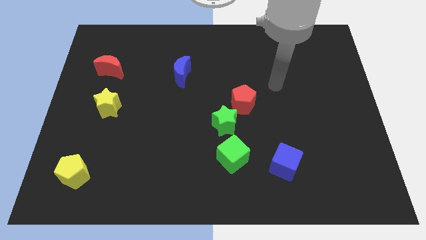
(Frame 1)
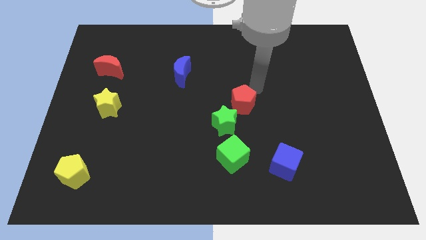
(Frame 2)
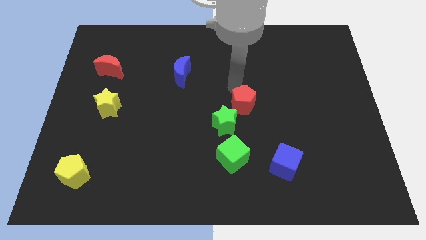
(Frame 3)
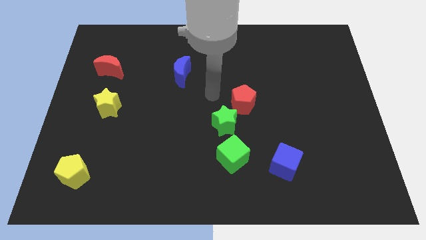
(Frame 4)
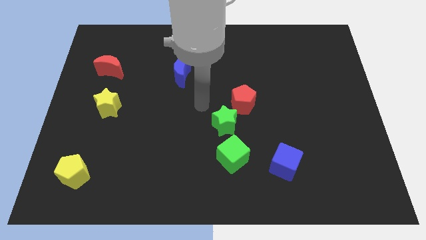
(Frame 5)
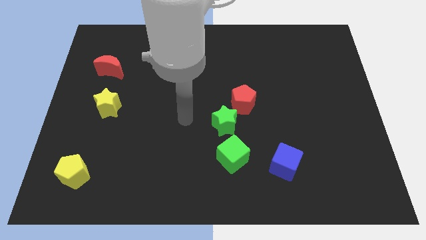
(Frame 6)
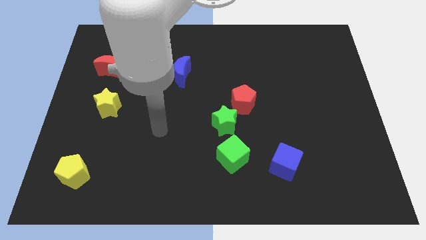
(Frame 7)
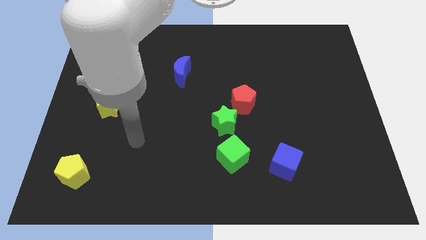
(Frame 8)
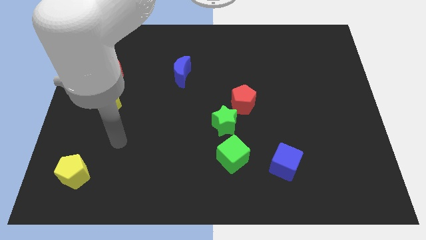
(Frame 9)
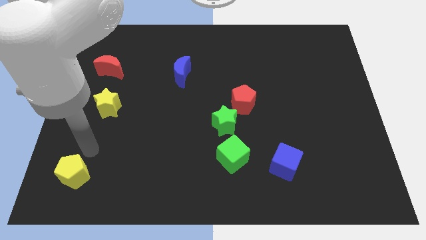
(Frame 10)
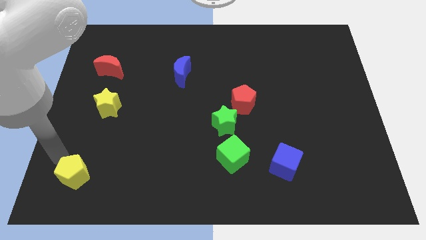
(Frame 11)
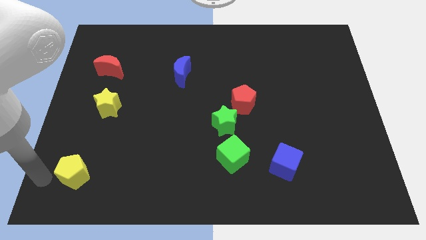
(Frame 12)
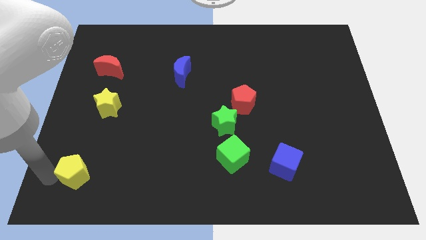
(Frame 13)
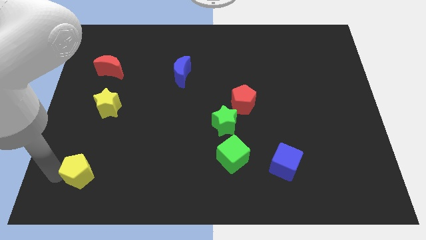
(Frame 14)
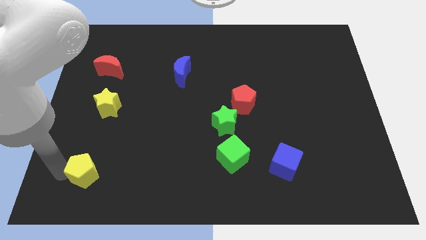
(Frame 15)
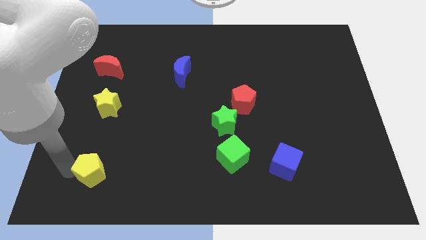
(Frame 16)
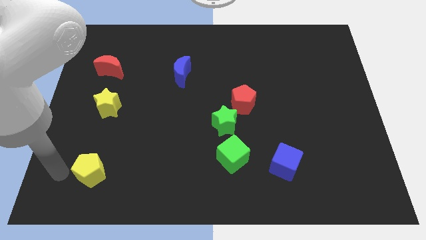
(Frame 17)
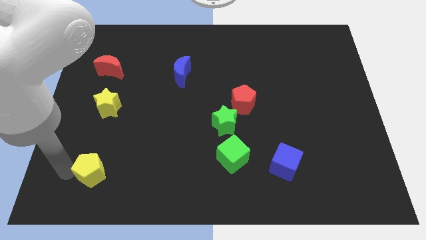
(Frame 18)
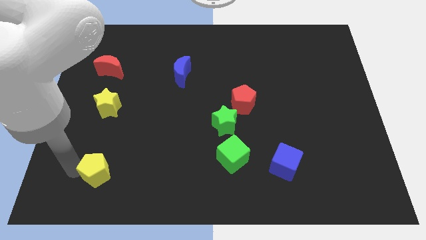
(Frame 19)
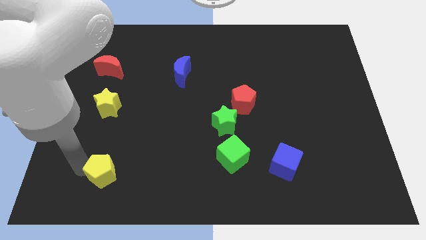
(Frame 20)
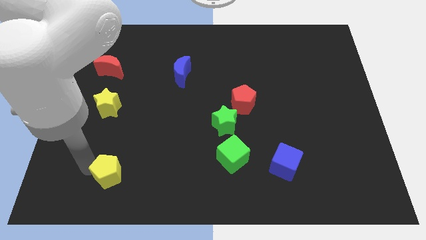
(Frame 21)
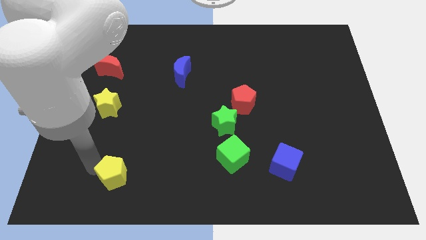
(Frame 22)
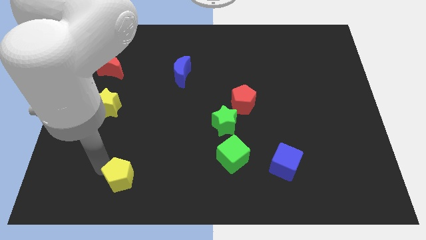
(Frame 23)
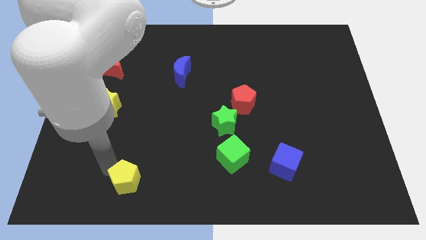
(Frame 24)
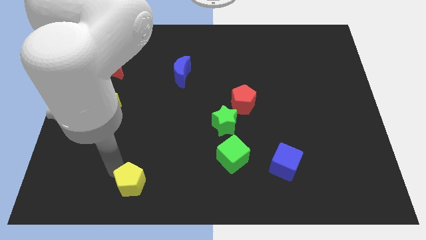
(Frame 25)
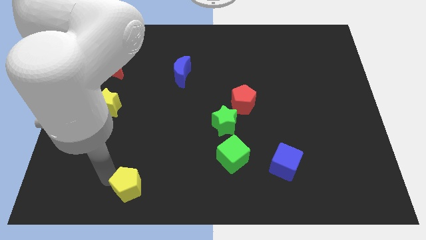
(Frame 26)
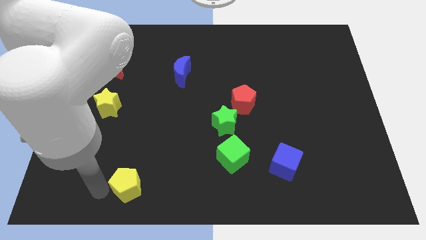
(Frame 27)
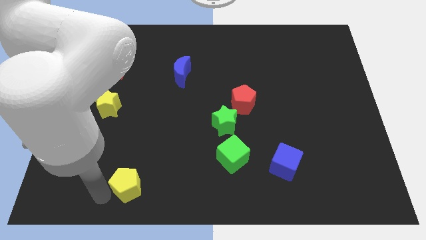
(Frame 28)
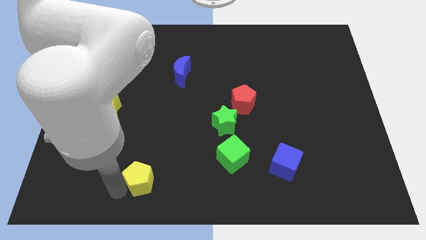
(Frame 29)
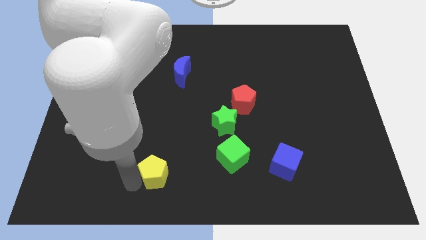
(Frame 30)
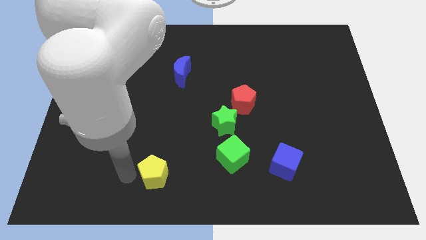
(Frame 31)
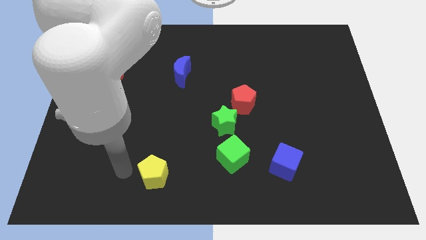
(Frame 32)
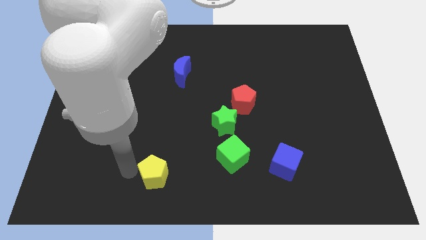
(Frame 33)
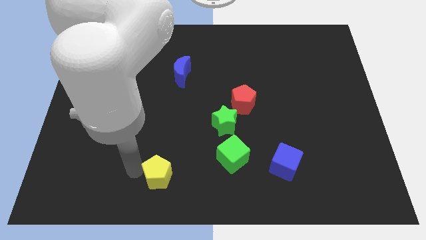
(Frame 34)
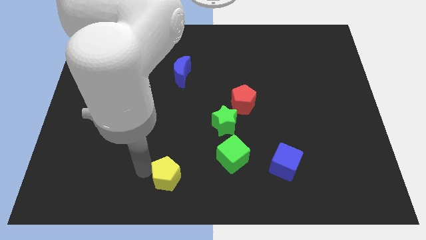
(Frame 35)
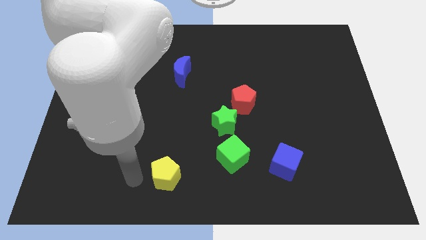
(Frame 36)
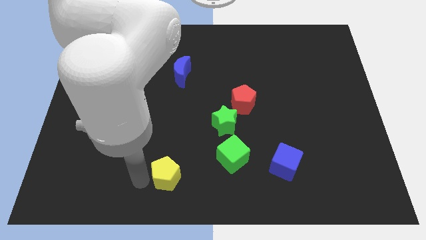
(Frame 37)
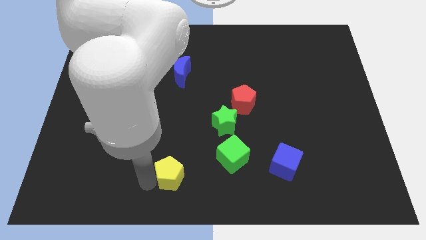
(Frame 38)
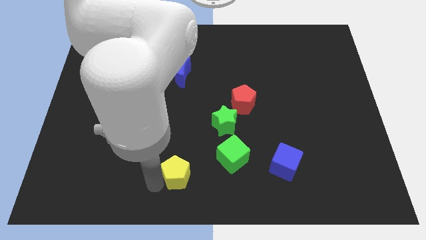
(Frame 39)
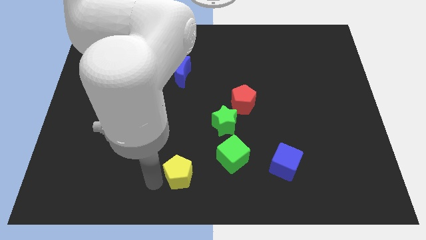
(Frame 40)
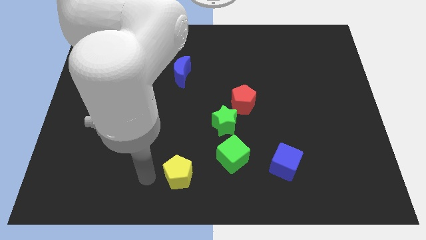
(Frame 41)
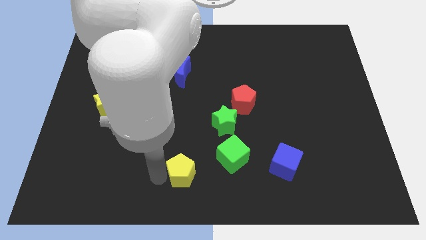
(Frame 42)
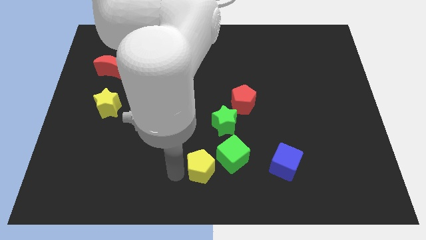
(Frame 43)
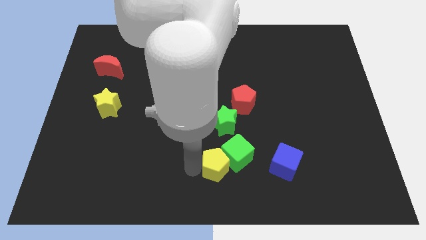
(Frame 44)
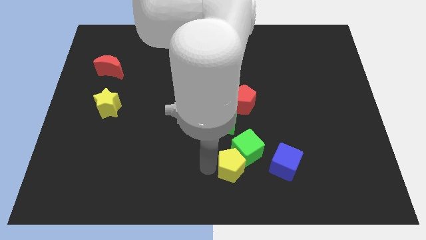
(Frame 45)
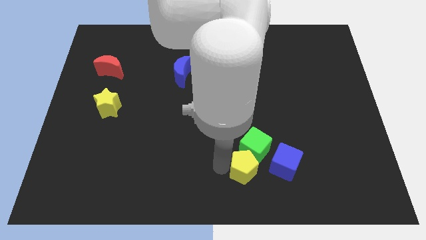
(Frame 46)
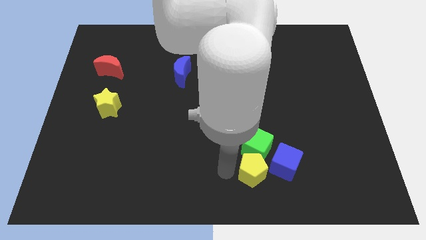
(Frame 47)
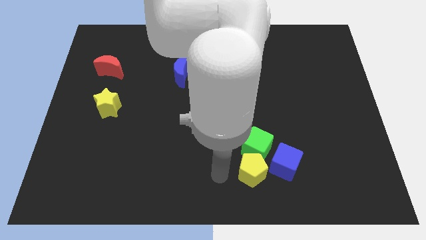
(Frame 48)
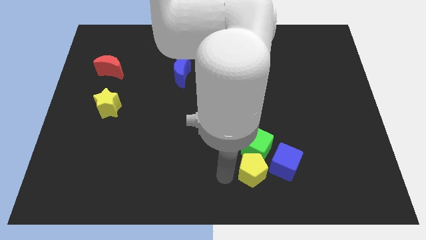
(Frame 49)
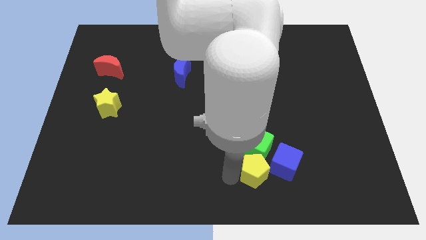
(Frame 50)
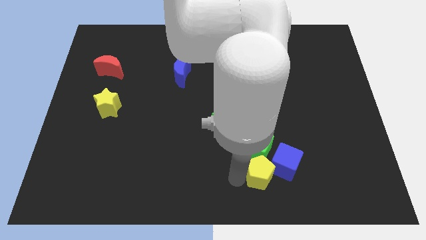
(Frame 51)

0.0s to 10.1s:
slide the yellow pentagon next to the blue cube

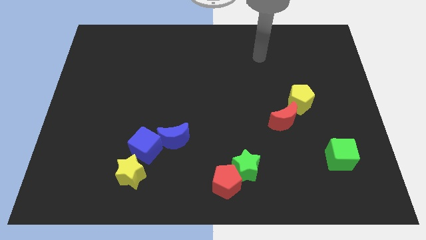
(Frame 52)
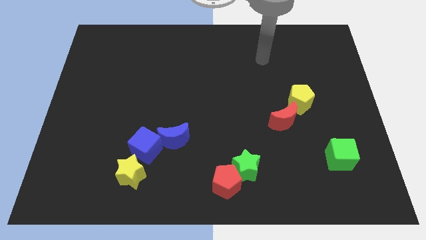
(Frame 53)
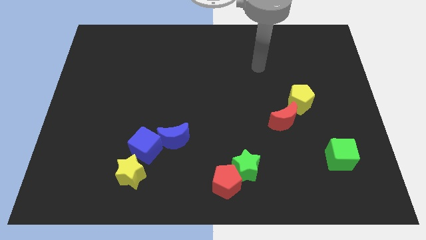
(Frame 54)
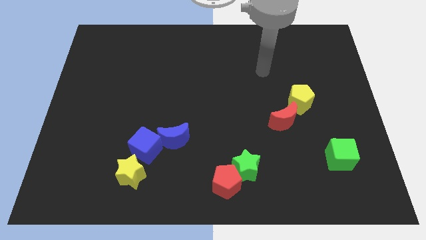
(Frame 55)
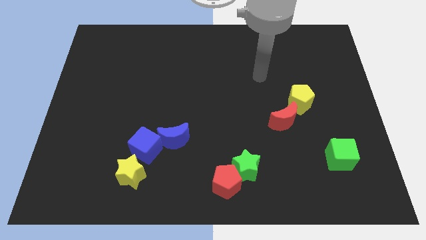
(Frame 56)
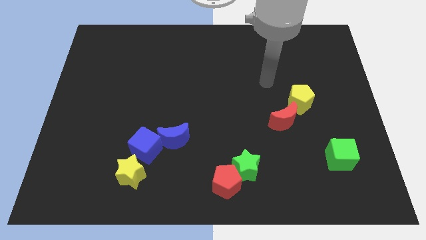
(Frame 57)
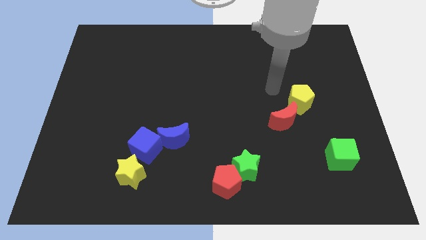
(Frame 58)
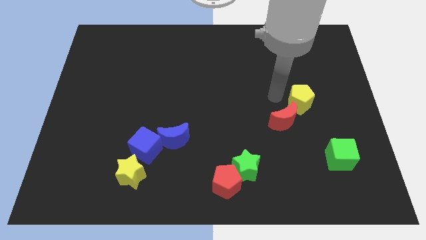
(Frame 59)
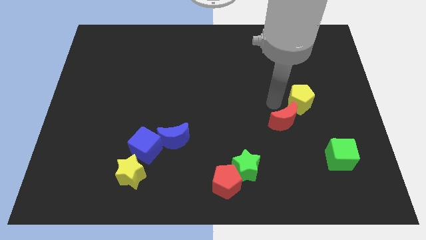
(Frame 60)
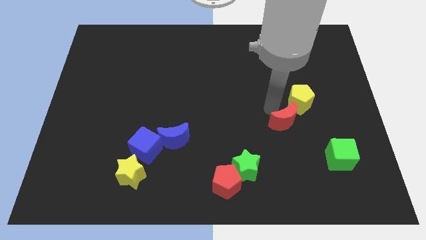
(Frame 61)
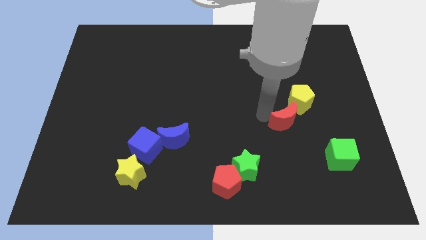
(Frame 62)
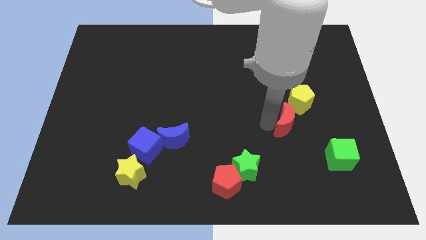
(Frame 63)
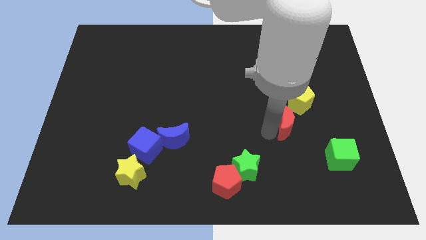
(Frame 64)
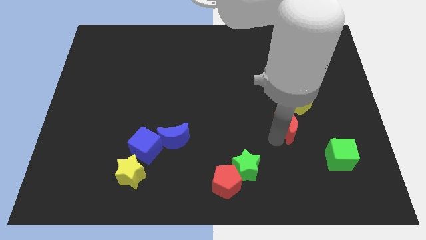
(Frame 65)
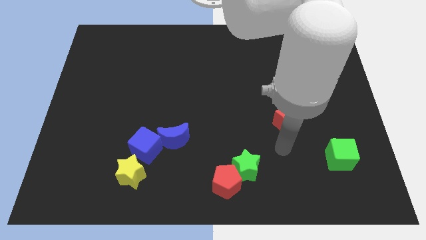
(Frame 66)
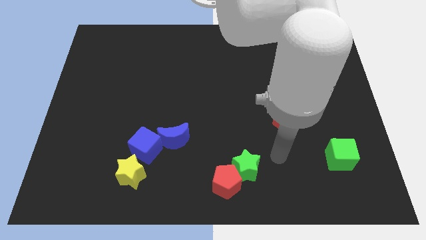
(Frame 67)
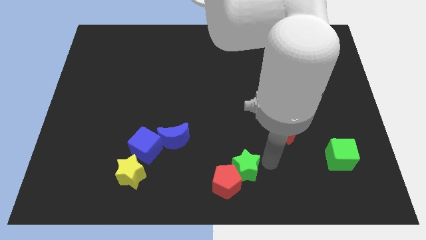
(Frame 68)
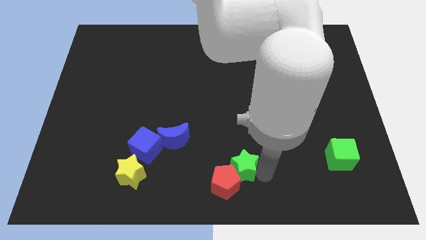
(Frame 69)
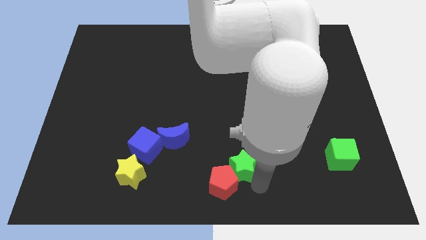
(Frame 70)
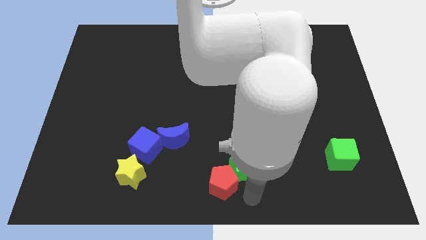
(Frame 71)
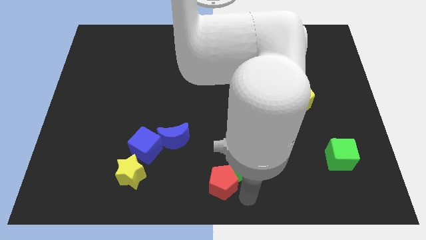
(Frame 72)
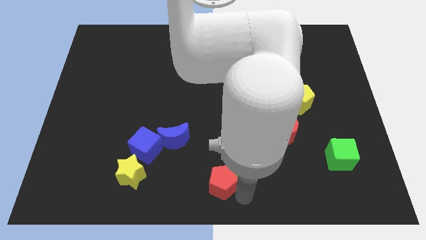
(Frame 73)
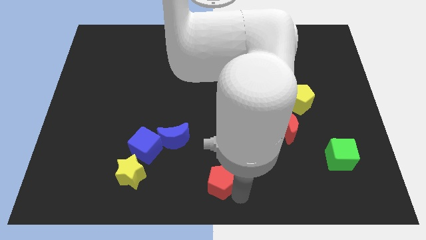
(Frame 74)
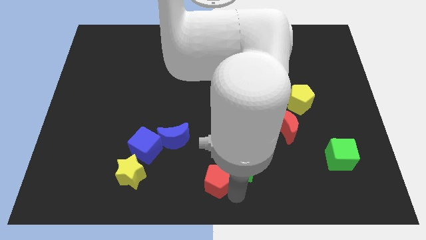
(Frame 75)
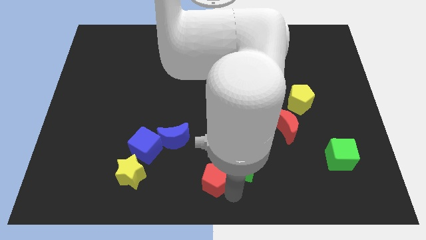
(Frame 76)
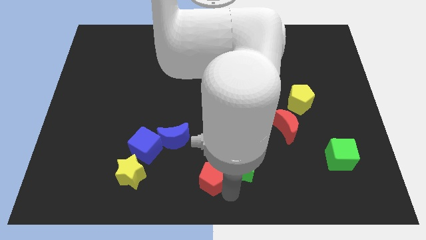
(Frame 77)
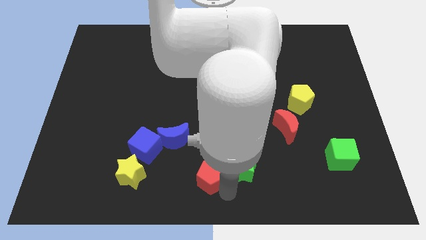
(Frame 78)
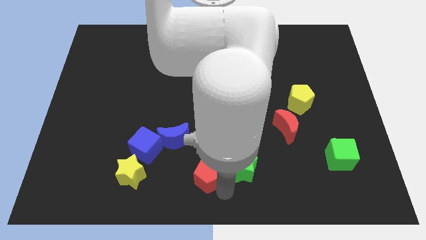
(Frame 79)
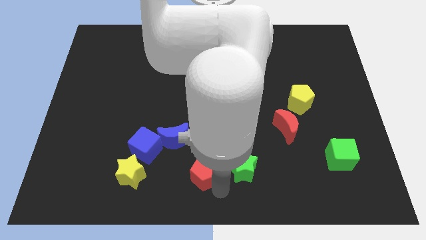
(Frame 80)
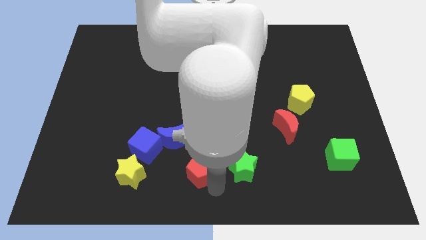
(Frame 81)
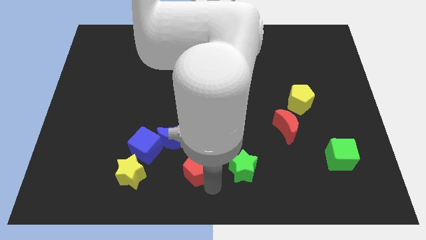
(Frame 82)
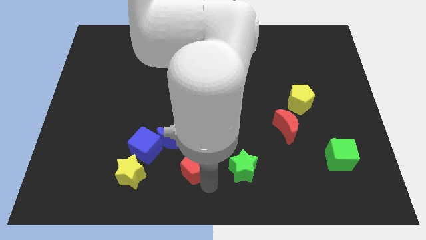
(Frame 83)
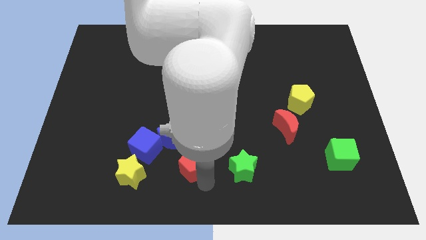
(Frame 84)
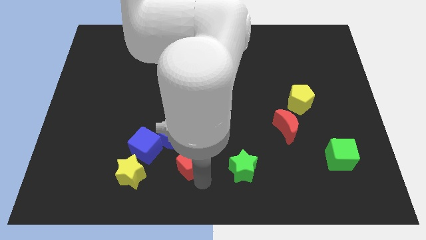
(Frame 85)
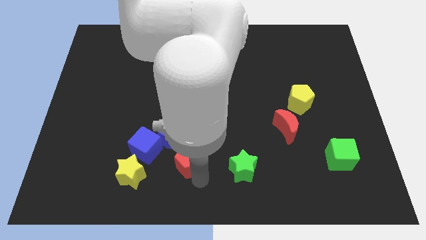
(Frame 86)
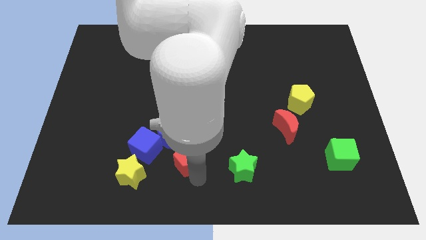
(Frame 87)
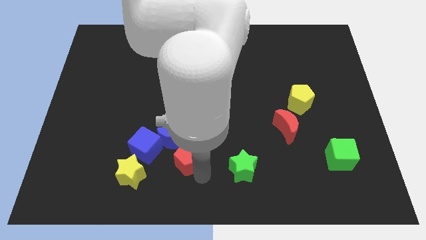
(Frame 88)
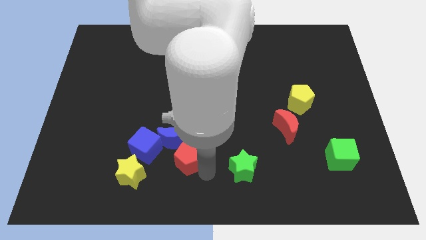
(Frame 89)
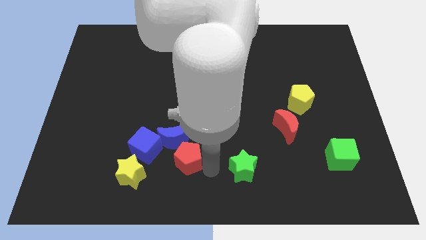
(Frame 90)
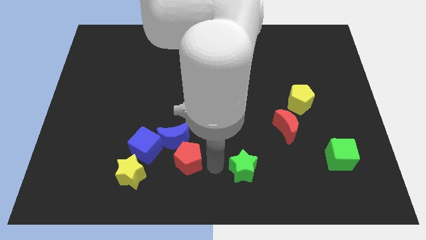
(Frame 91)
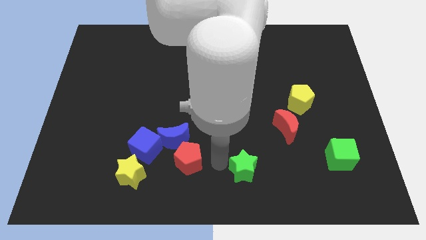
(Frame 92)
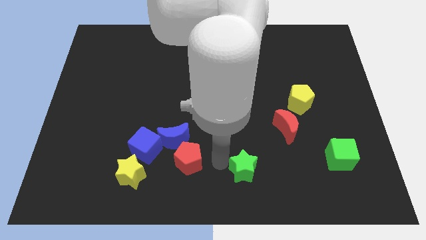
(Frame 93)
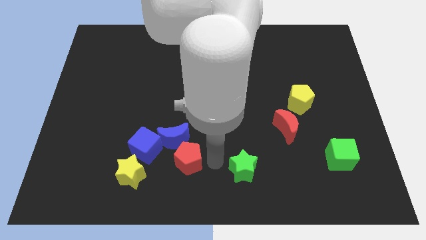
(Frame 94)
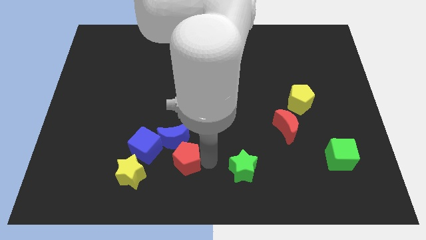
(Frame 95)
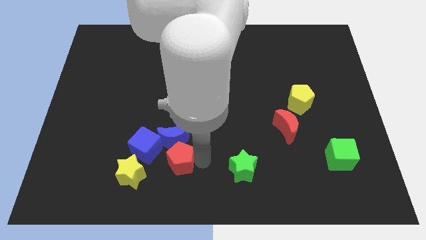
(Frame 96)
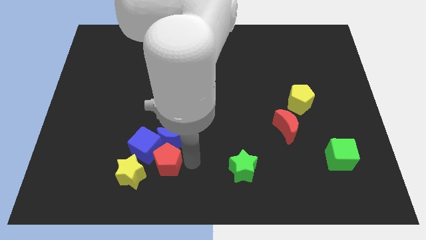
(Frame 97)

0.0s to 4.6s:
move the red pentagon next to the blue cube
